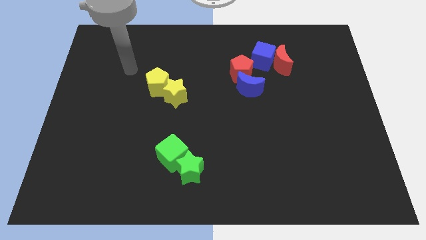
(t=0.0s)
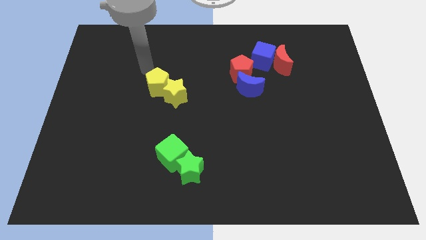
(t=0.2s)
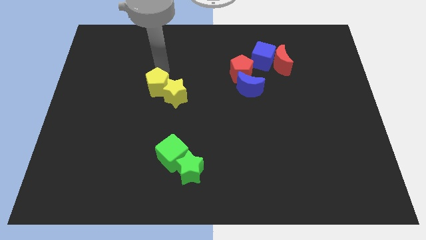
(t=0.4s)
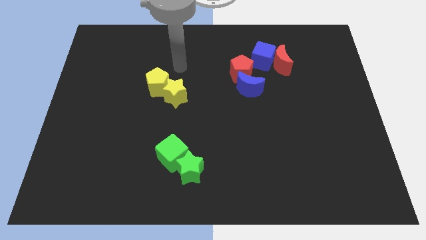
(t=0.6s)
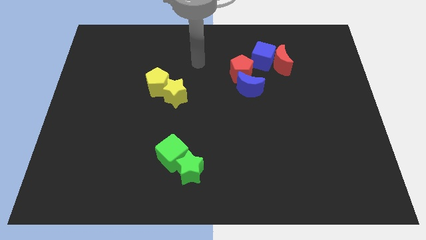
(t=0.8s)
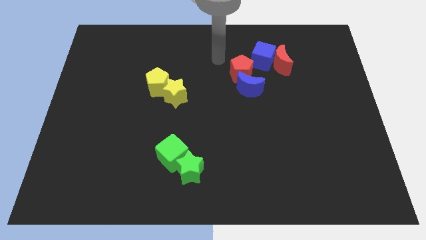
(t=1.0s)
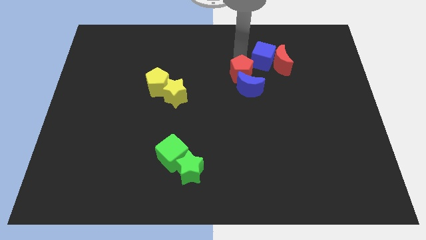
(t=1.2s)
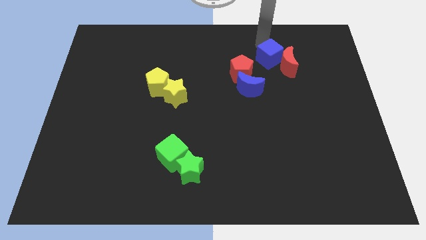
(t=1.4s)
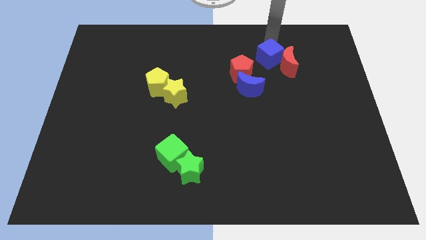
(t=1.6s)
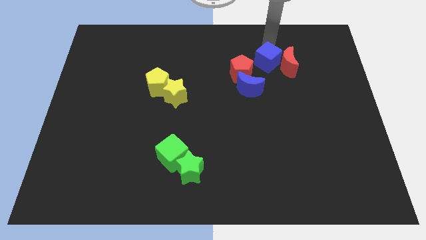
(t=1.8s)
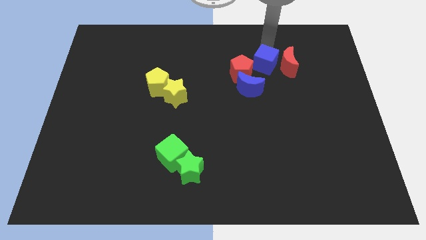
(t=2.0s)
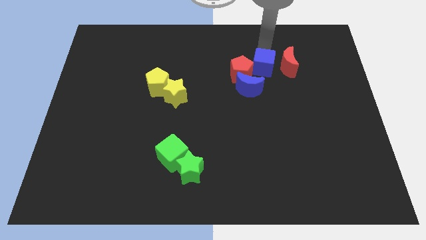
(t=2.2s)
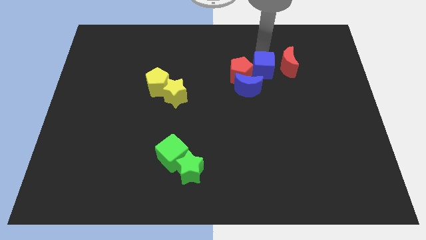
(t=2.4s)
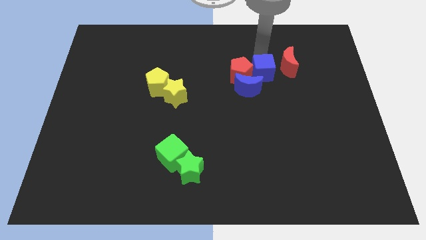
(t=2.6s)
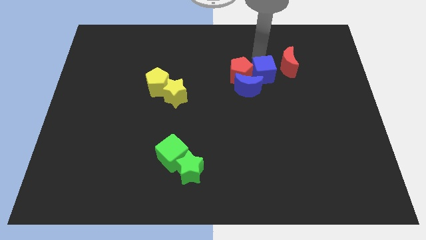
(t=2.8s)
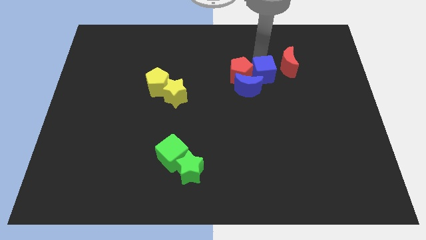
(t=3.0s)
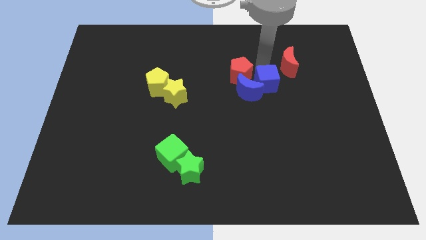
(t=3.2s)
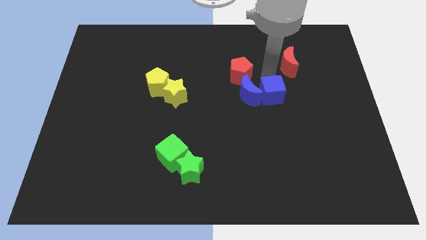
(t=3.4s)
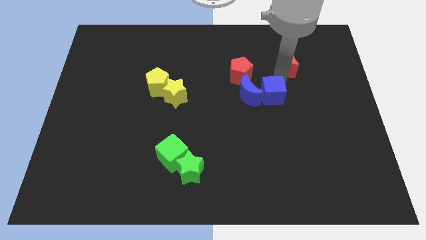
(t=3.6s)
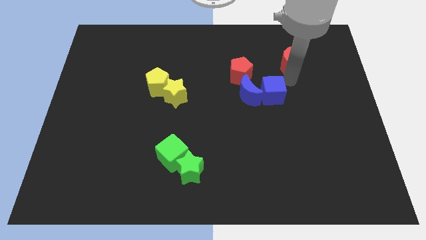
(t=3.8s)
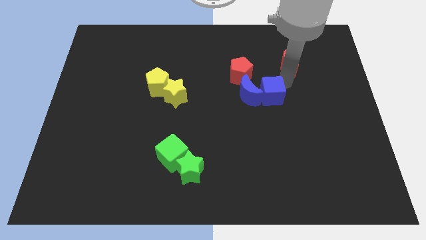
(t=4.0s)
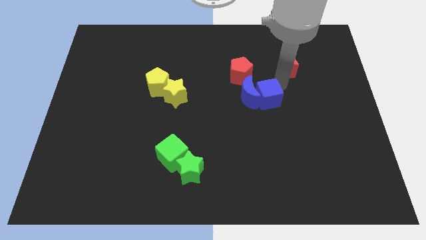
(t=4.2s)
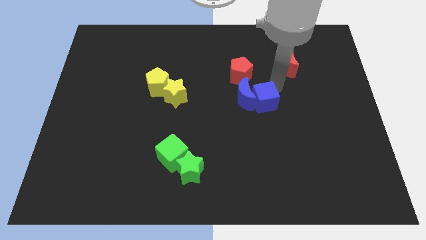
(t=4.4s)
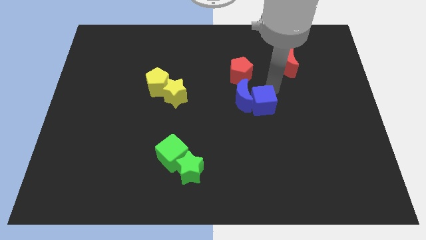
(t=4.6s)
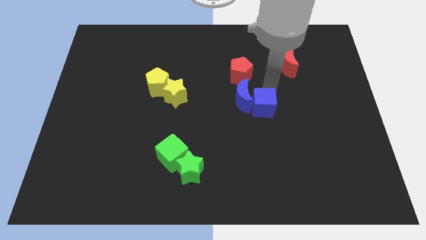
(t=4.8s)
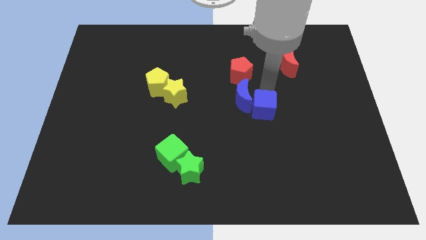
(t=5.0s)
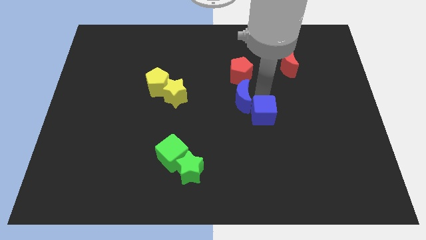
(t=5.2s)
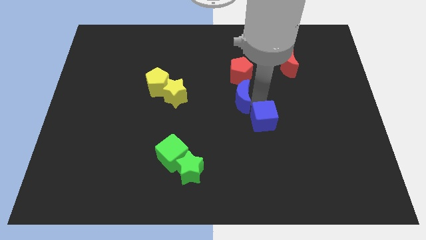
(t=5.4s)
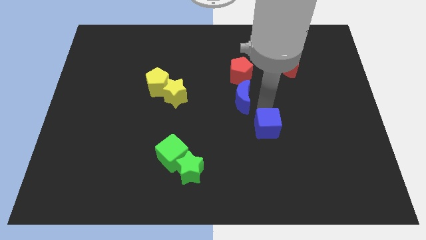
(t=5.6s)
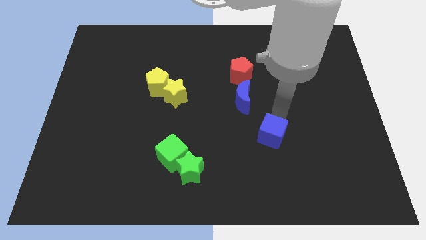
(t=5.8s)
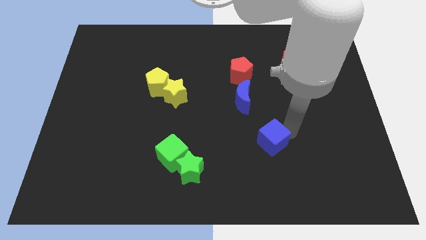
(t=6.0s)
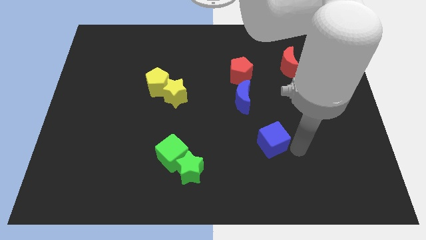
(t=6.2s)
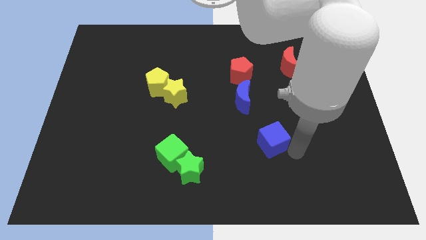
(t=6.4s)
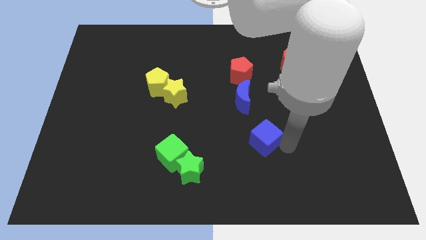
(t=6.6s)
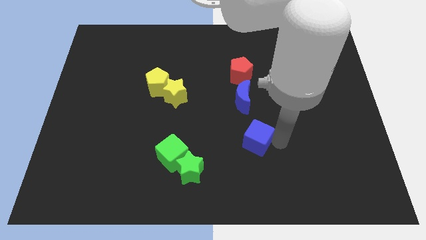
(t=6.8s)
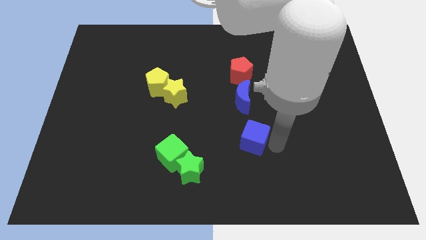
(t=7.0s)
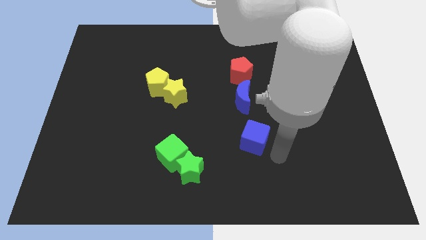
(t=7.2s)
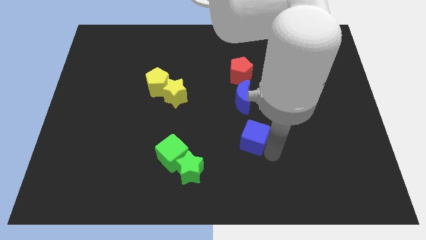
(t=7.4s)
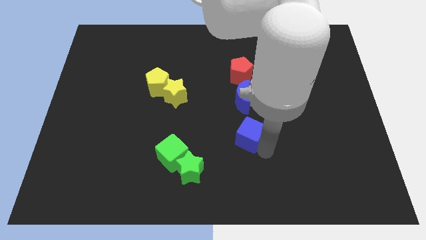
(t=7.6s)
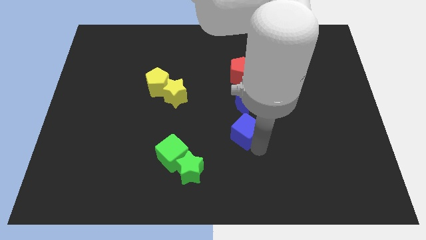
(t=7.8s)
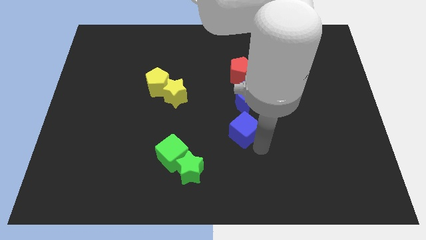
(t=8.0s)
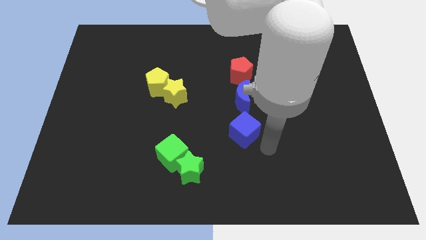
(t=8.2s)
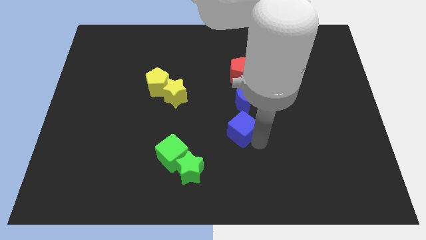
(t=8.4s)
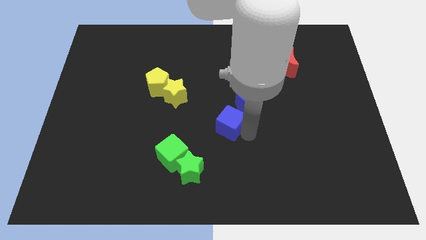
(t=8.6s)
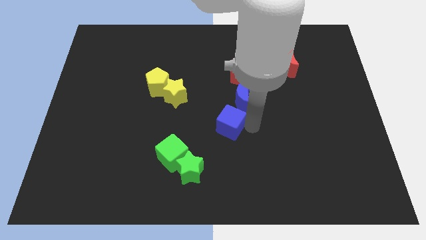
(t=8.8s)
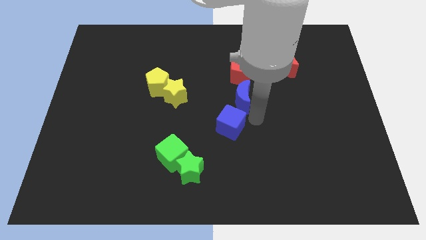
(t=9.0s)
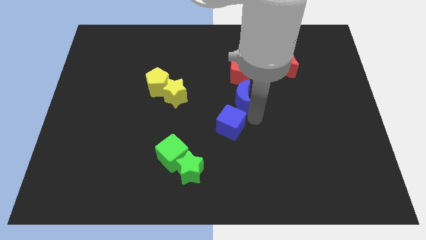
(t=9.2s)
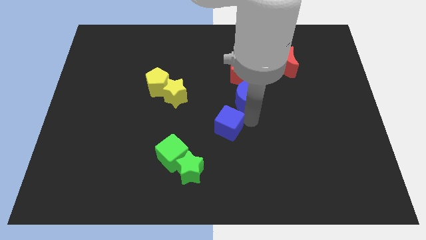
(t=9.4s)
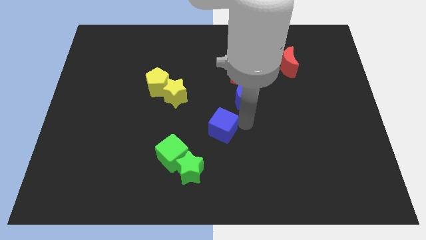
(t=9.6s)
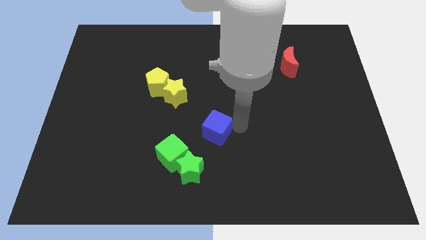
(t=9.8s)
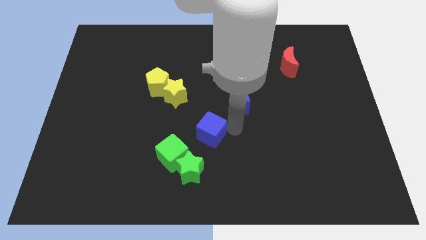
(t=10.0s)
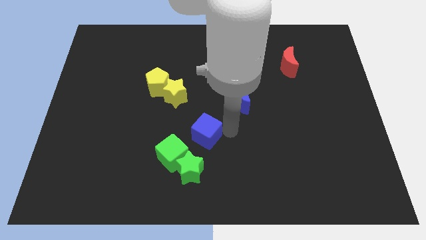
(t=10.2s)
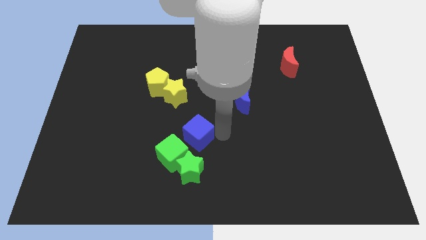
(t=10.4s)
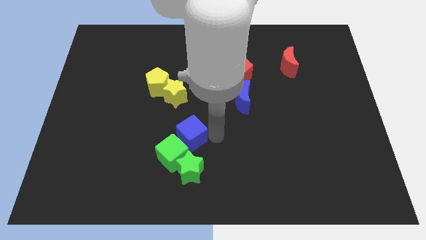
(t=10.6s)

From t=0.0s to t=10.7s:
move the blue cube next to the green cube

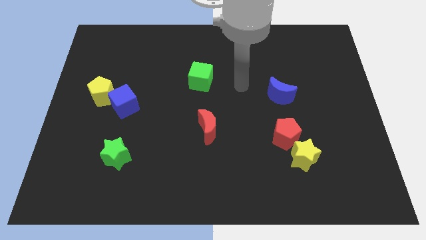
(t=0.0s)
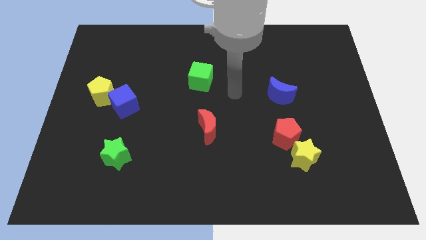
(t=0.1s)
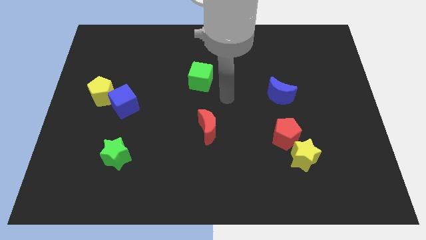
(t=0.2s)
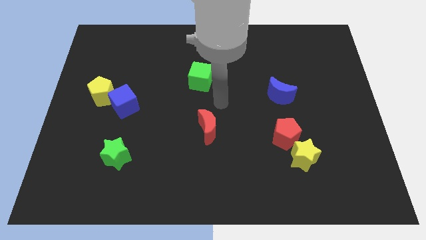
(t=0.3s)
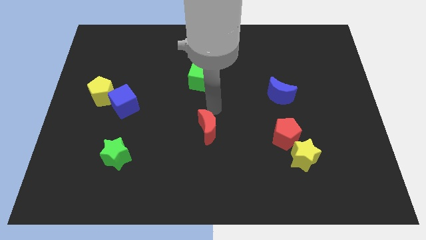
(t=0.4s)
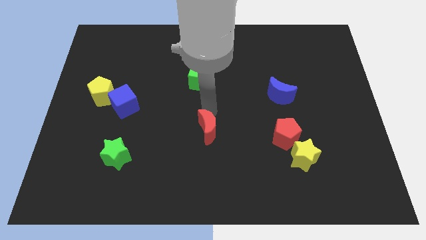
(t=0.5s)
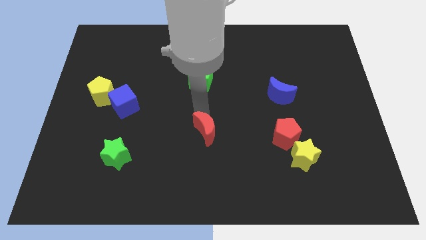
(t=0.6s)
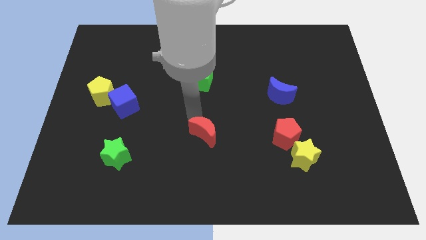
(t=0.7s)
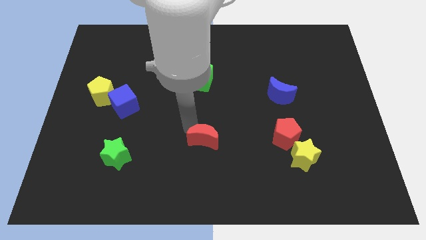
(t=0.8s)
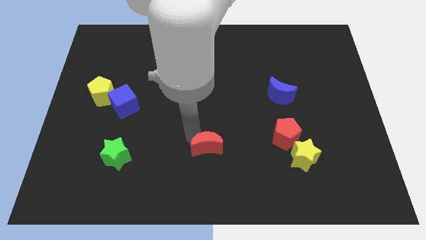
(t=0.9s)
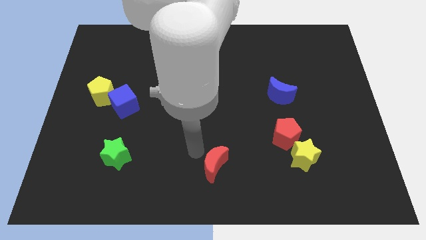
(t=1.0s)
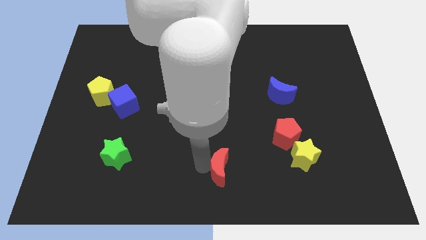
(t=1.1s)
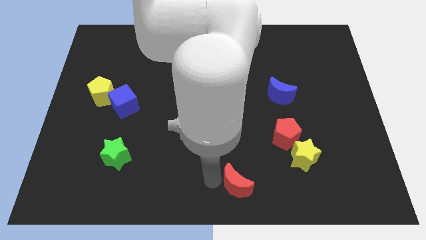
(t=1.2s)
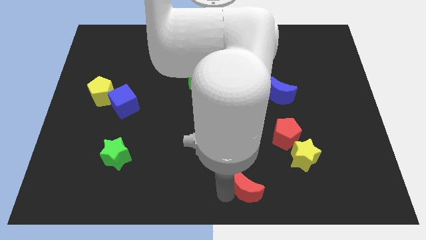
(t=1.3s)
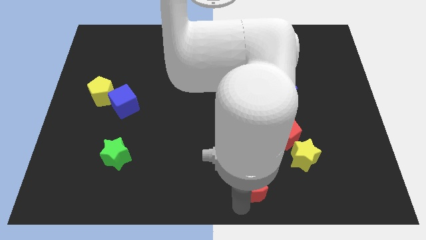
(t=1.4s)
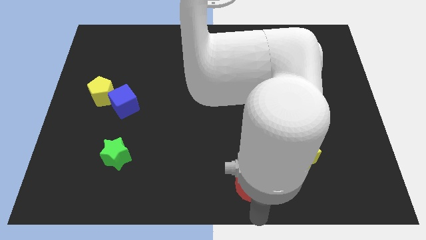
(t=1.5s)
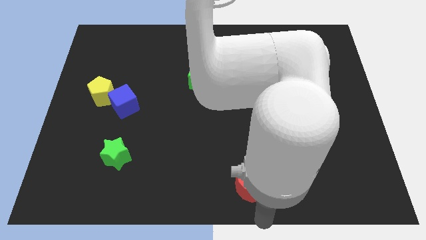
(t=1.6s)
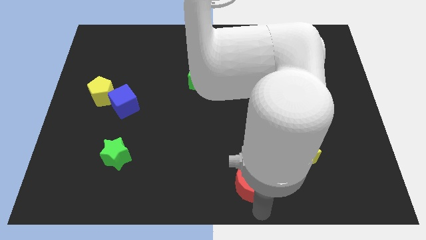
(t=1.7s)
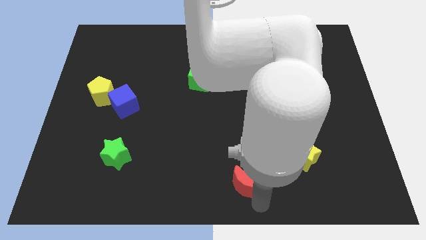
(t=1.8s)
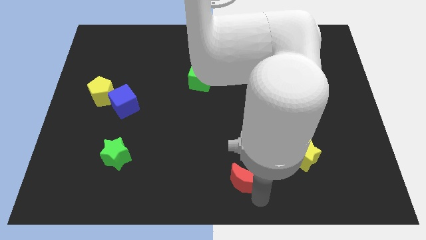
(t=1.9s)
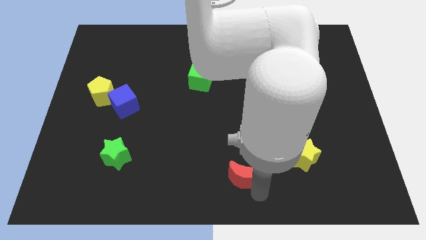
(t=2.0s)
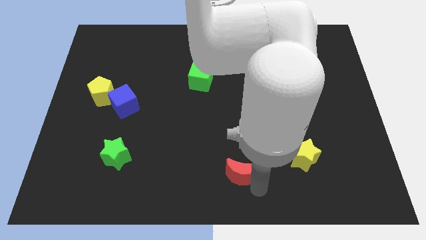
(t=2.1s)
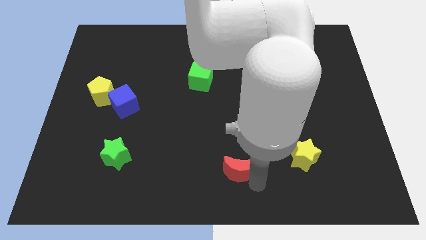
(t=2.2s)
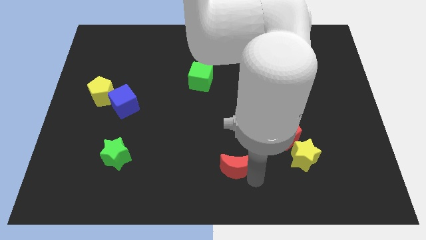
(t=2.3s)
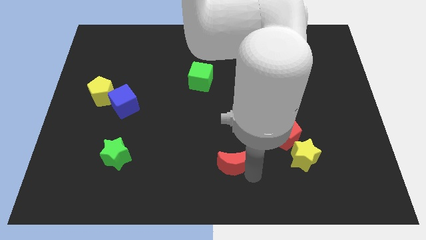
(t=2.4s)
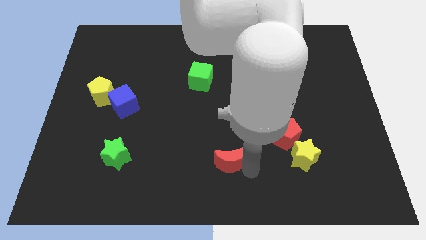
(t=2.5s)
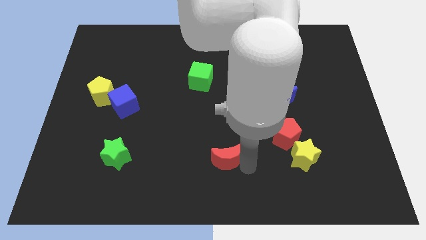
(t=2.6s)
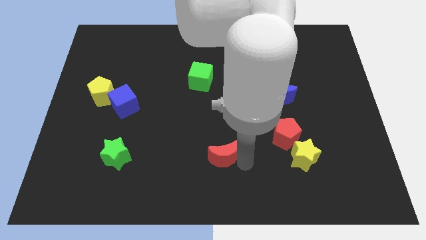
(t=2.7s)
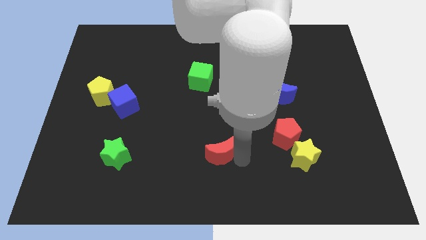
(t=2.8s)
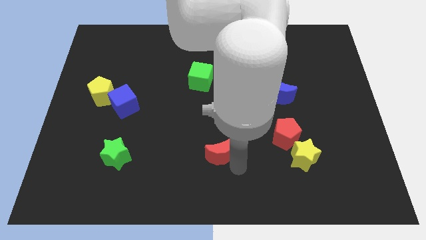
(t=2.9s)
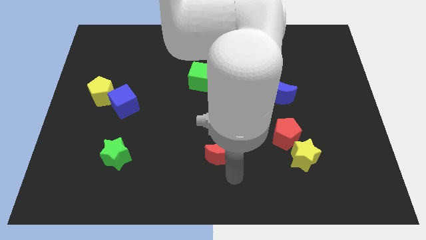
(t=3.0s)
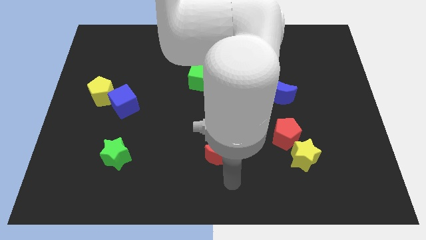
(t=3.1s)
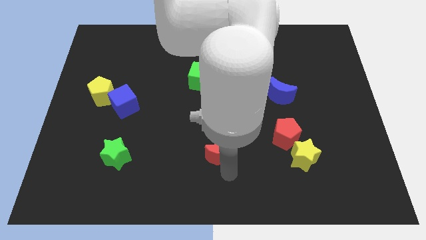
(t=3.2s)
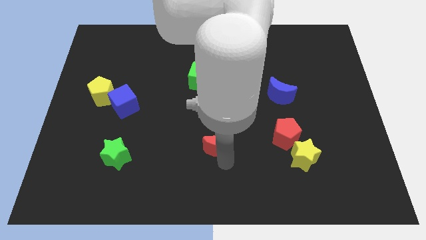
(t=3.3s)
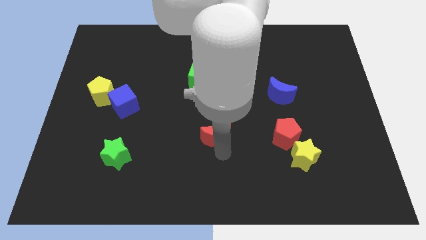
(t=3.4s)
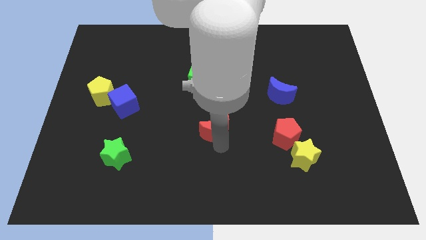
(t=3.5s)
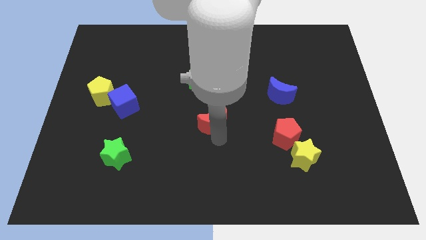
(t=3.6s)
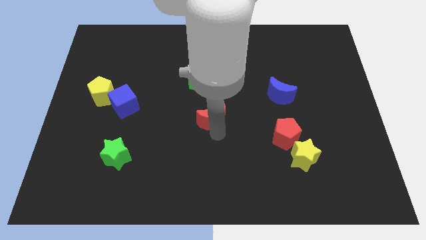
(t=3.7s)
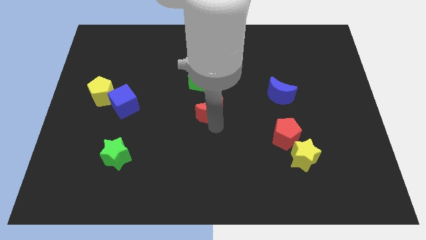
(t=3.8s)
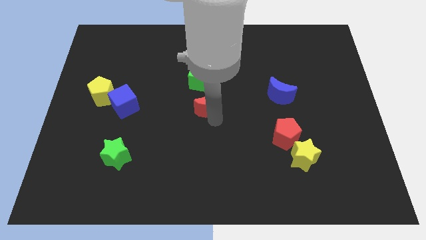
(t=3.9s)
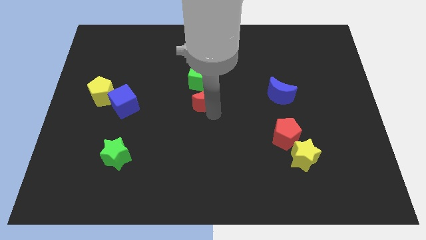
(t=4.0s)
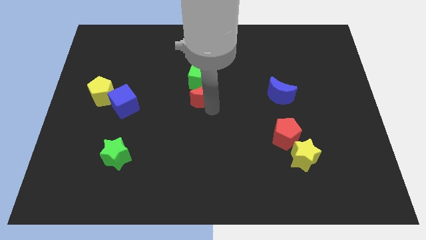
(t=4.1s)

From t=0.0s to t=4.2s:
put the red moon to the green cube
